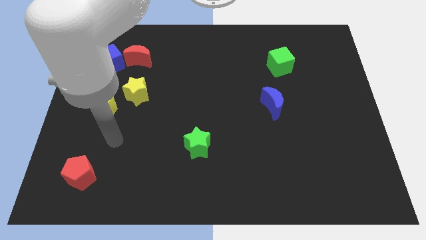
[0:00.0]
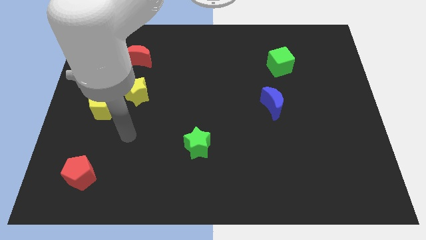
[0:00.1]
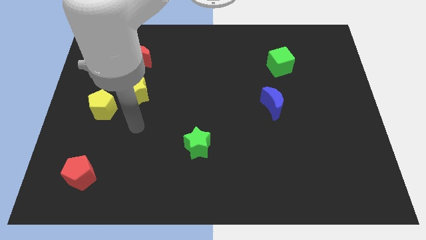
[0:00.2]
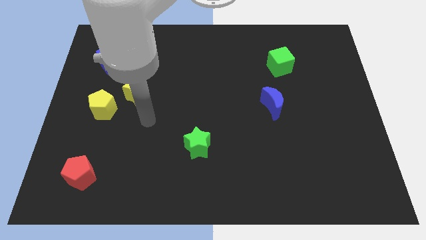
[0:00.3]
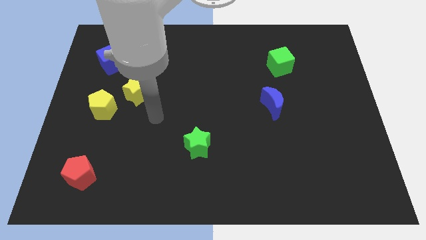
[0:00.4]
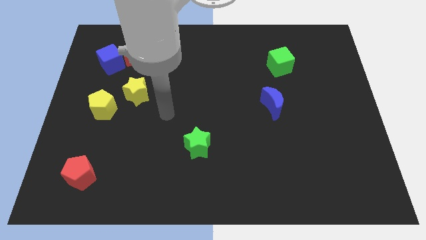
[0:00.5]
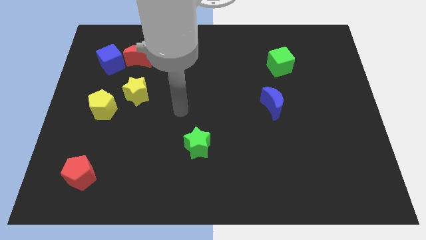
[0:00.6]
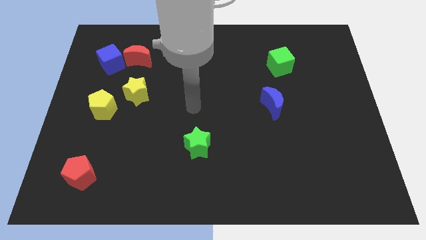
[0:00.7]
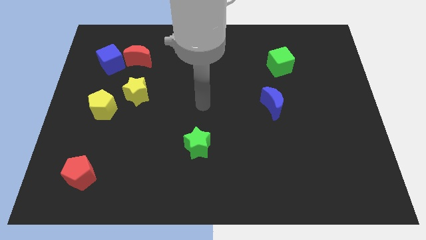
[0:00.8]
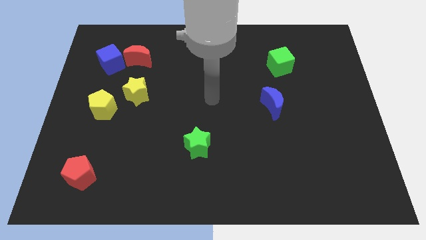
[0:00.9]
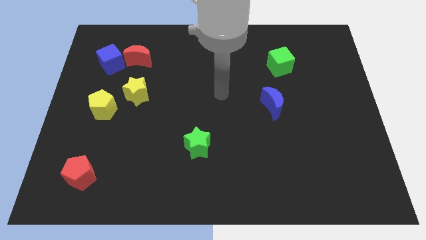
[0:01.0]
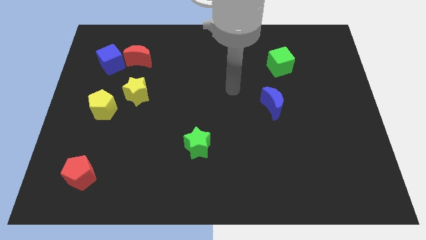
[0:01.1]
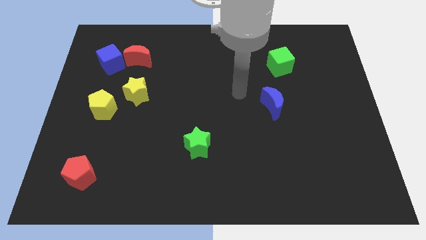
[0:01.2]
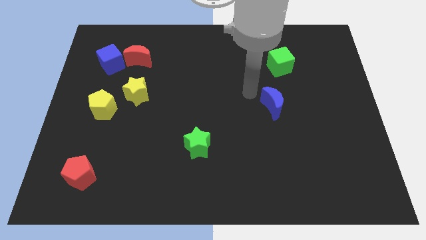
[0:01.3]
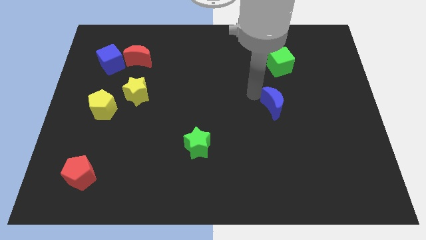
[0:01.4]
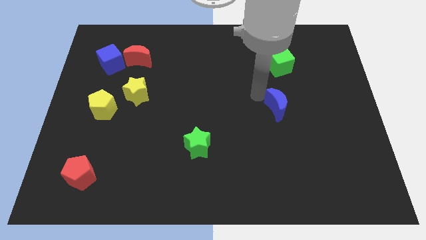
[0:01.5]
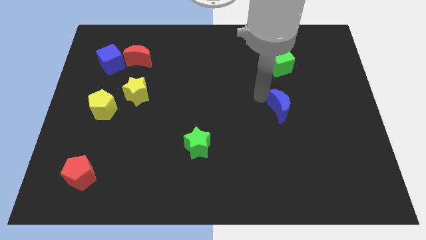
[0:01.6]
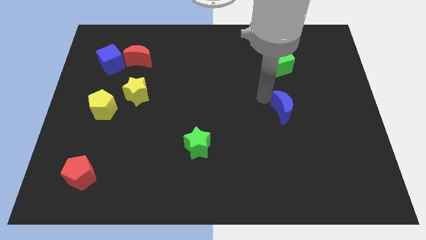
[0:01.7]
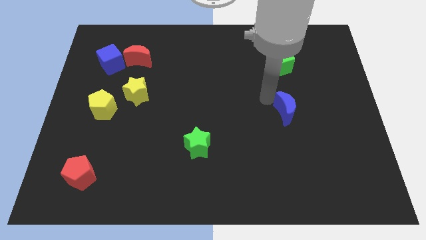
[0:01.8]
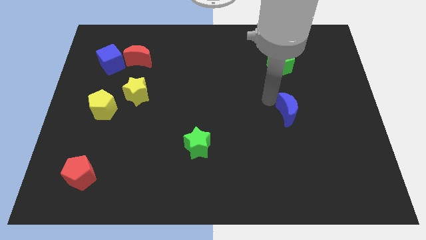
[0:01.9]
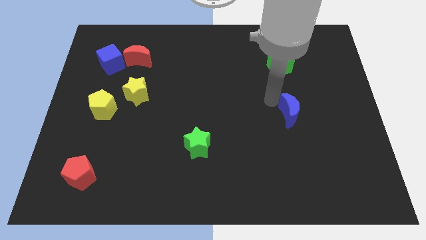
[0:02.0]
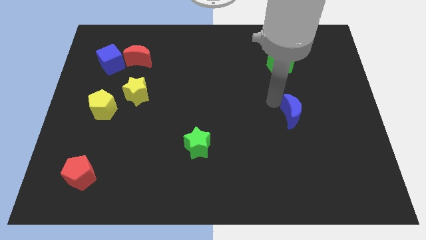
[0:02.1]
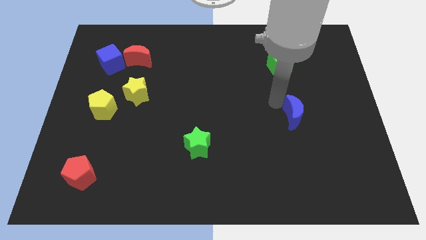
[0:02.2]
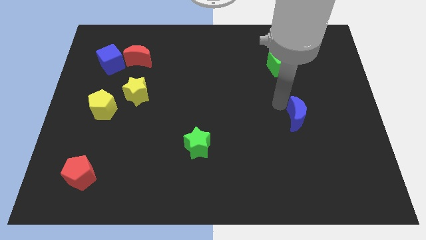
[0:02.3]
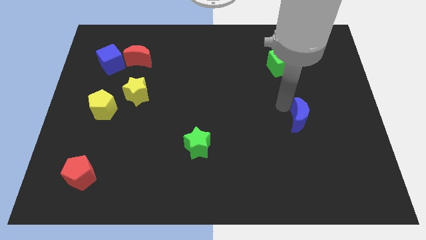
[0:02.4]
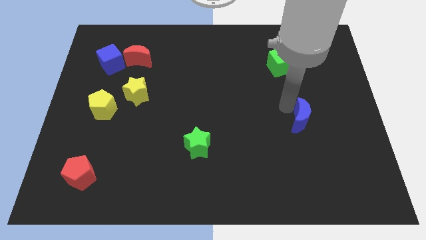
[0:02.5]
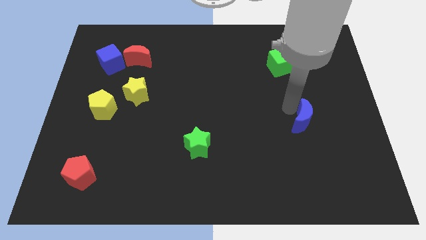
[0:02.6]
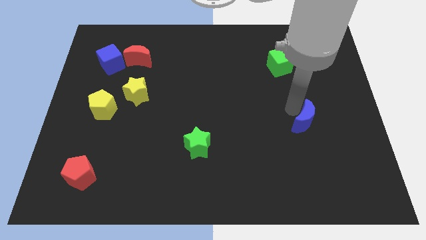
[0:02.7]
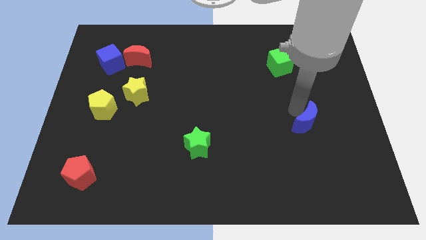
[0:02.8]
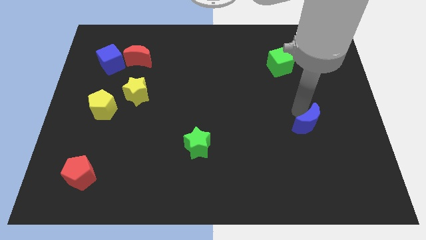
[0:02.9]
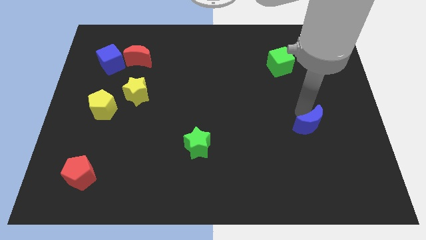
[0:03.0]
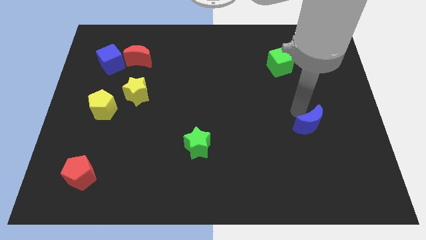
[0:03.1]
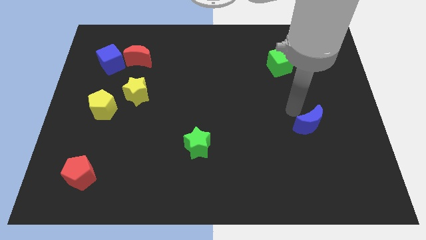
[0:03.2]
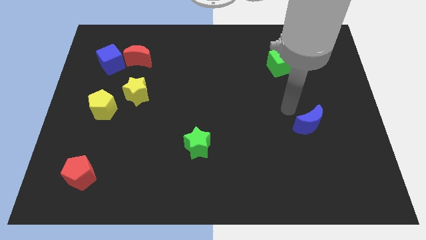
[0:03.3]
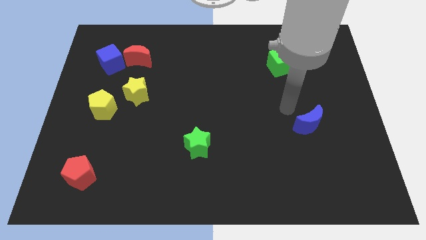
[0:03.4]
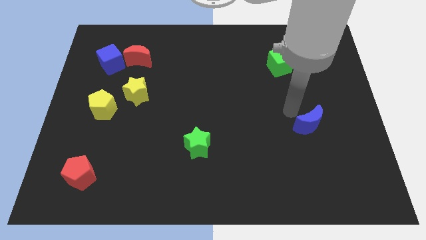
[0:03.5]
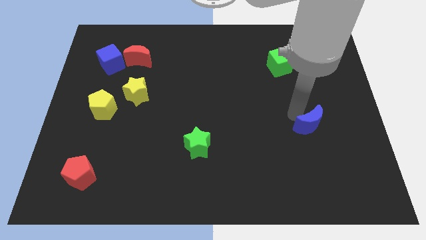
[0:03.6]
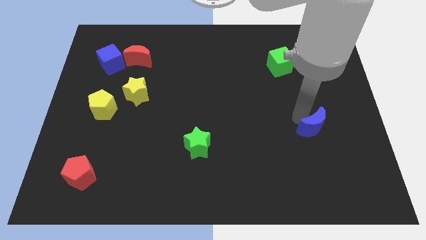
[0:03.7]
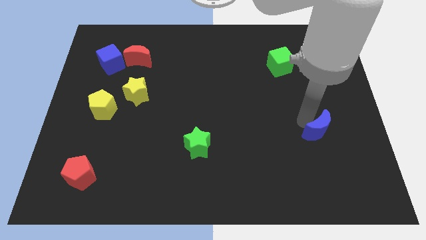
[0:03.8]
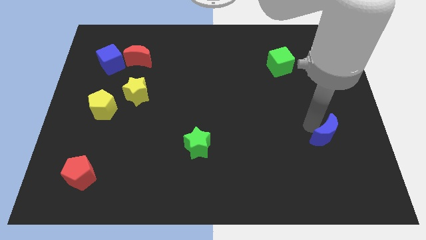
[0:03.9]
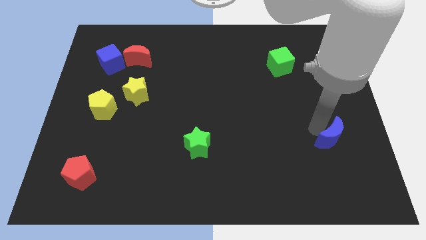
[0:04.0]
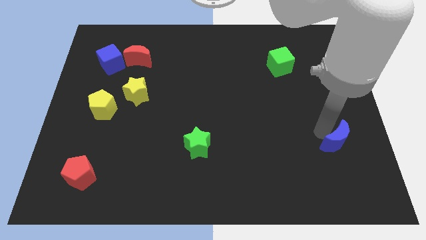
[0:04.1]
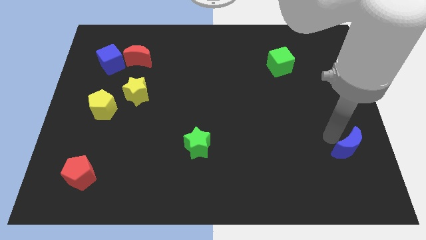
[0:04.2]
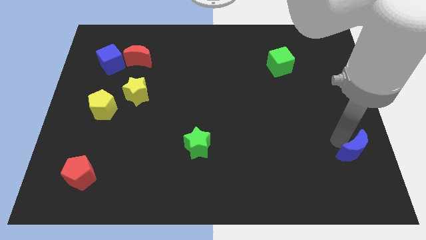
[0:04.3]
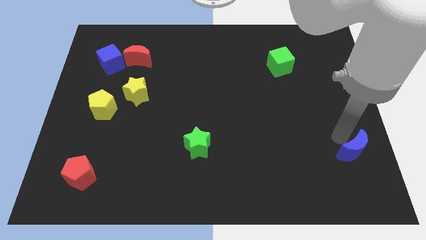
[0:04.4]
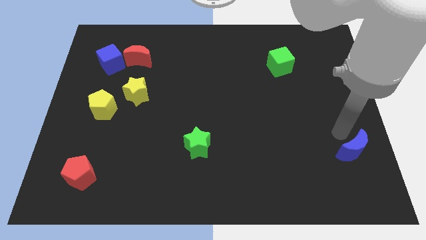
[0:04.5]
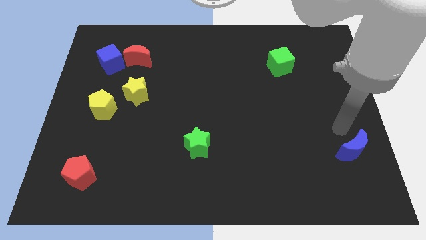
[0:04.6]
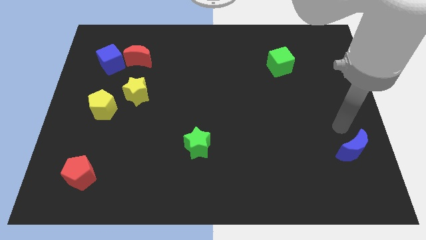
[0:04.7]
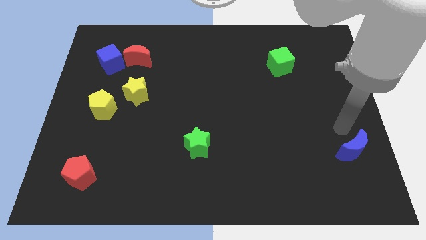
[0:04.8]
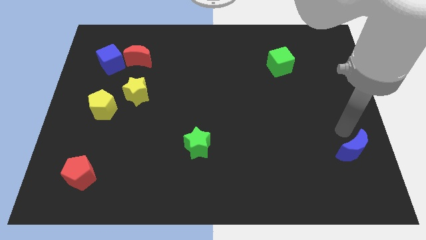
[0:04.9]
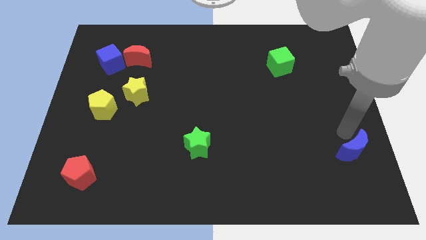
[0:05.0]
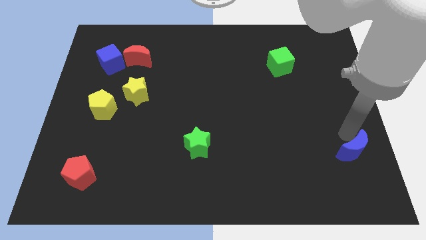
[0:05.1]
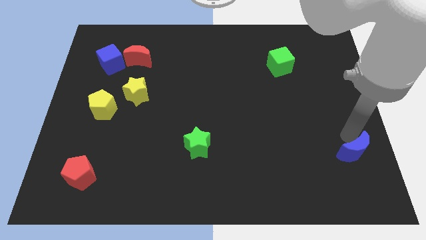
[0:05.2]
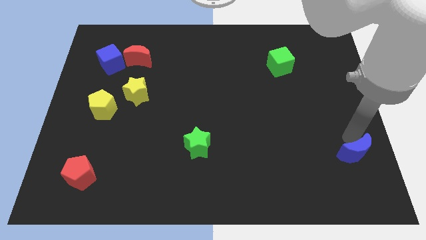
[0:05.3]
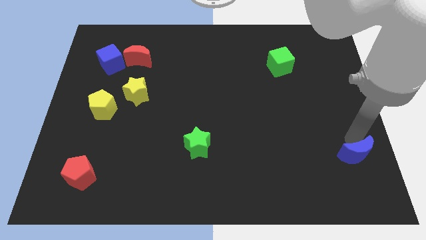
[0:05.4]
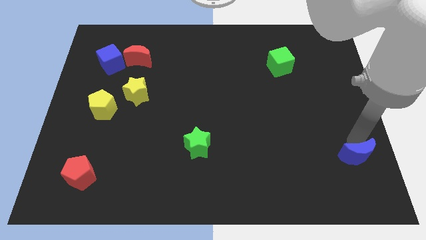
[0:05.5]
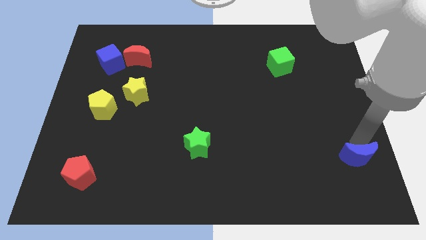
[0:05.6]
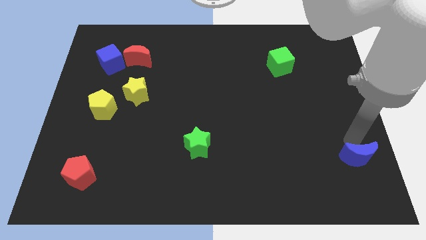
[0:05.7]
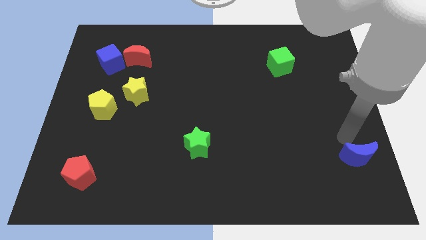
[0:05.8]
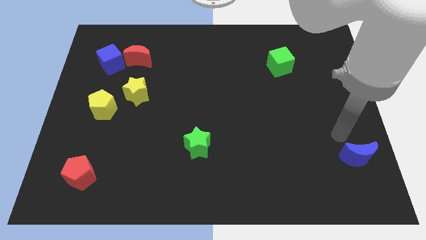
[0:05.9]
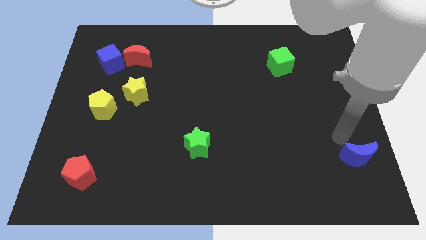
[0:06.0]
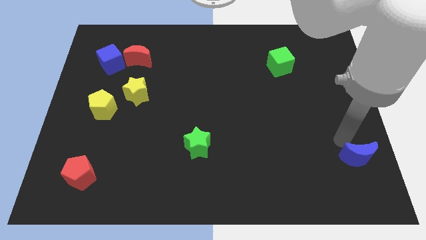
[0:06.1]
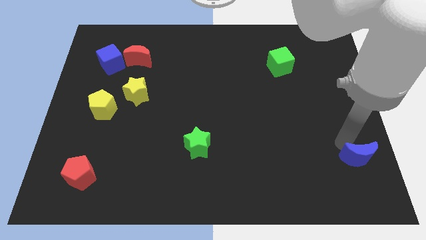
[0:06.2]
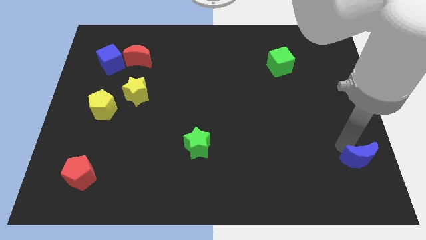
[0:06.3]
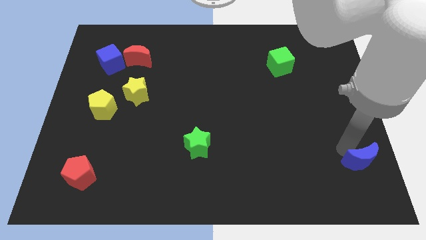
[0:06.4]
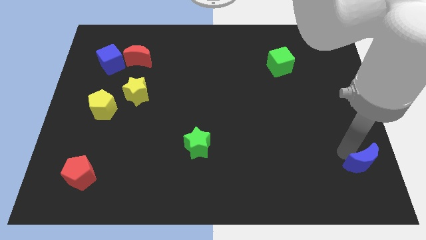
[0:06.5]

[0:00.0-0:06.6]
put the blue moon to the bottom right

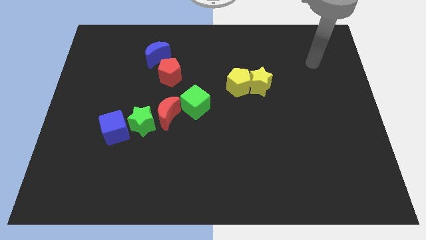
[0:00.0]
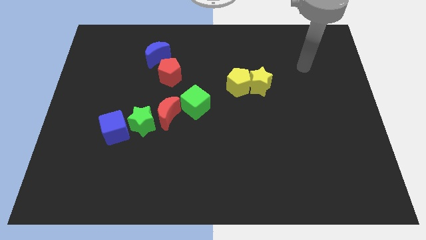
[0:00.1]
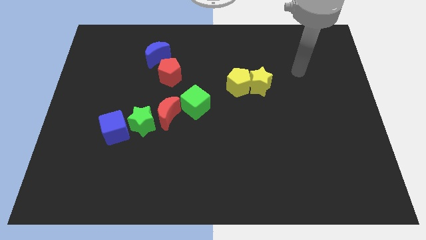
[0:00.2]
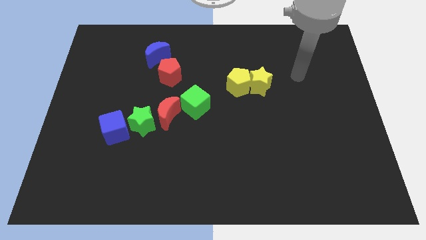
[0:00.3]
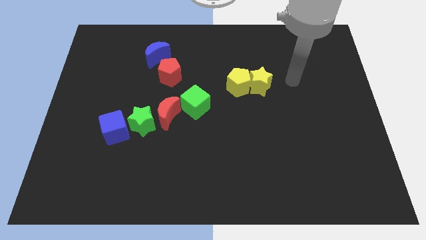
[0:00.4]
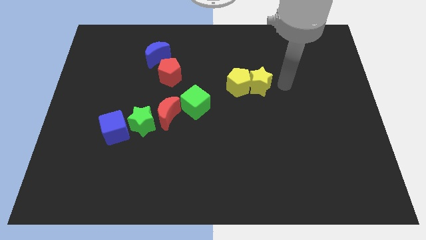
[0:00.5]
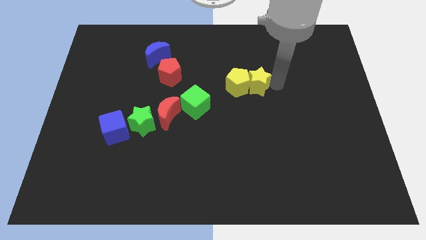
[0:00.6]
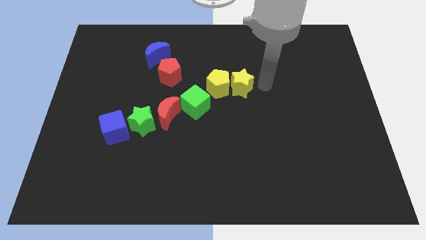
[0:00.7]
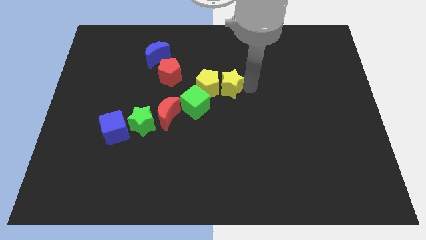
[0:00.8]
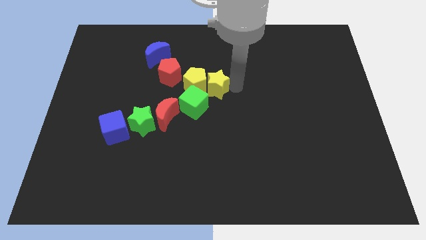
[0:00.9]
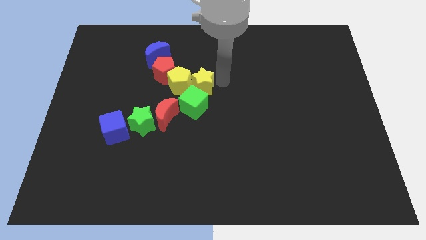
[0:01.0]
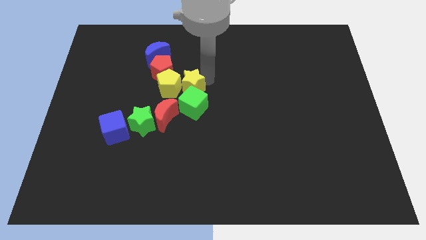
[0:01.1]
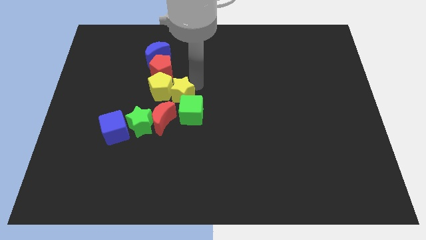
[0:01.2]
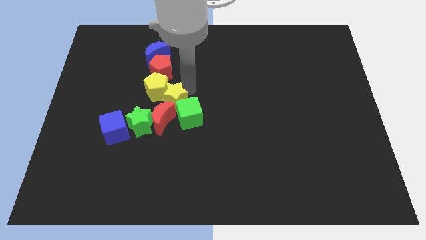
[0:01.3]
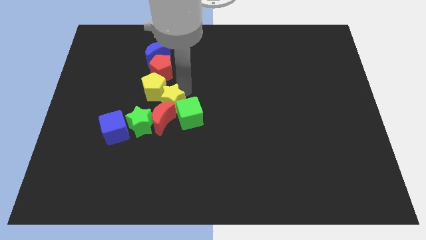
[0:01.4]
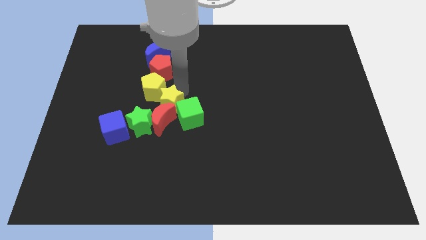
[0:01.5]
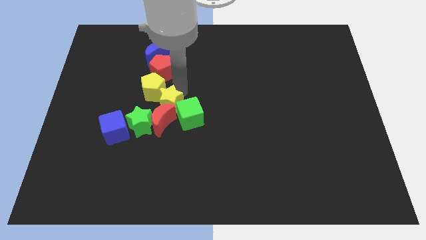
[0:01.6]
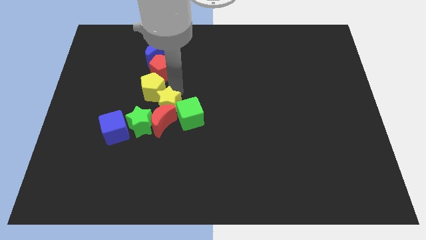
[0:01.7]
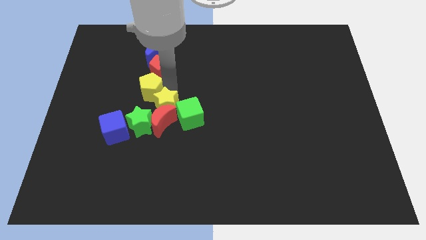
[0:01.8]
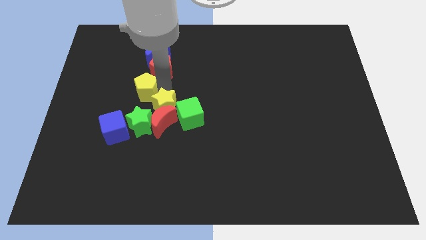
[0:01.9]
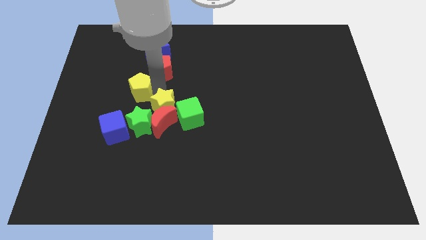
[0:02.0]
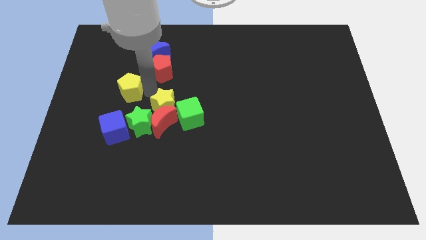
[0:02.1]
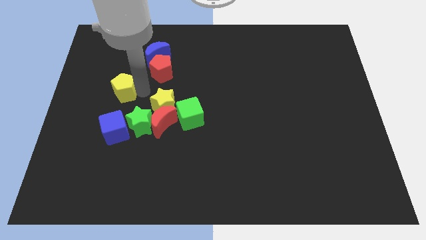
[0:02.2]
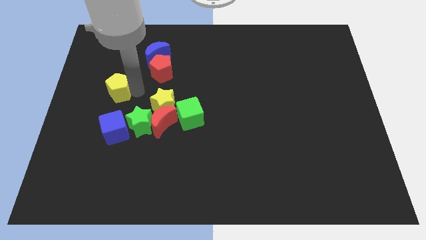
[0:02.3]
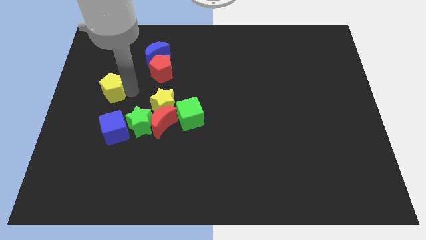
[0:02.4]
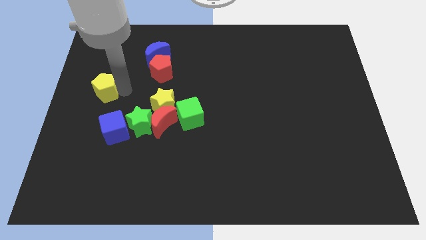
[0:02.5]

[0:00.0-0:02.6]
push the yellow pentagon to the left side of the board
